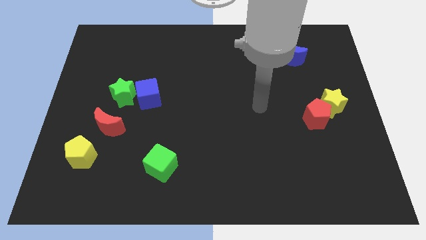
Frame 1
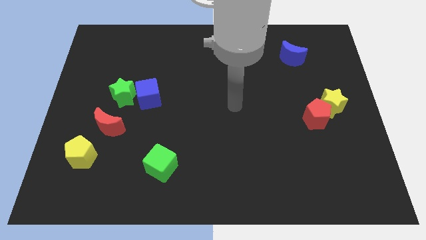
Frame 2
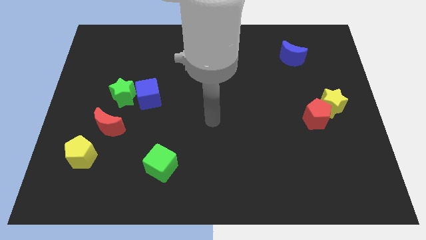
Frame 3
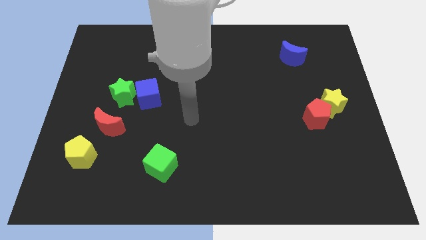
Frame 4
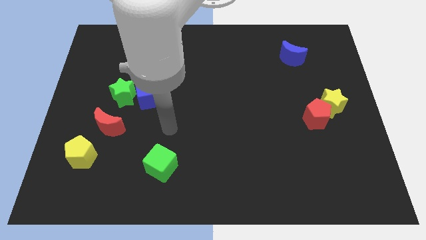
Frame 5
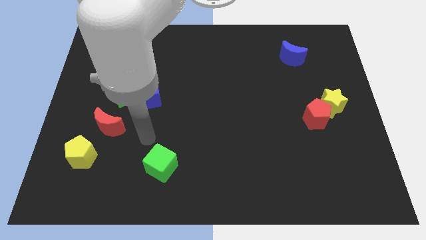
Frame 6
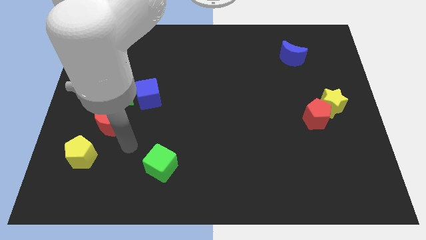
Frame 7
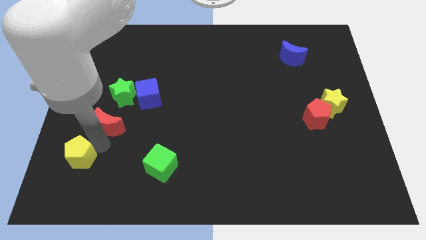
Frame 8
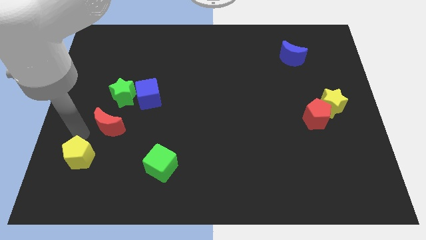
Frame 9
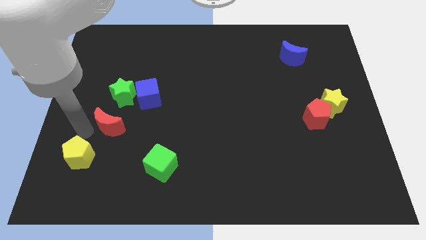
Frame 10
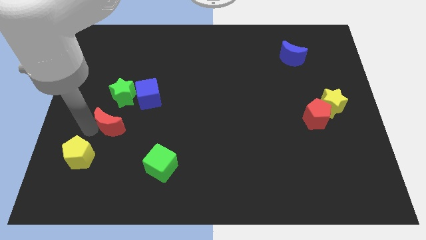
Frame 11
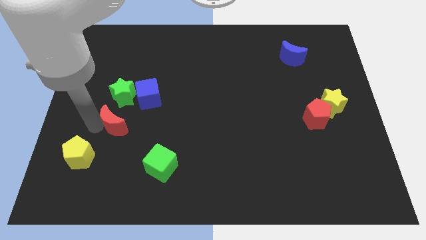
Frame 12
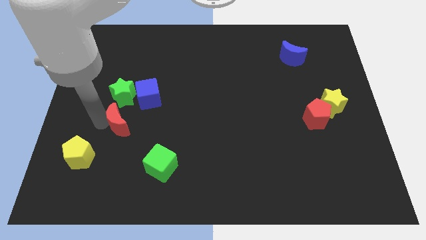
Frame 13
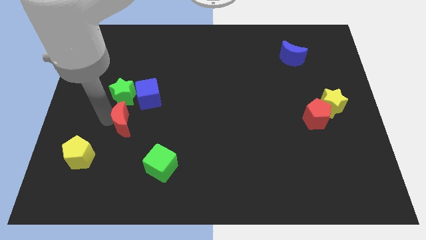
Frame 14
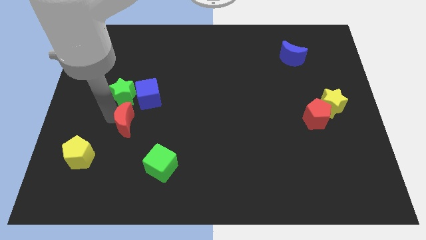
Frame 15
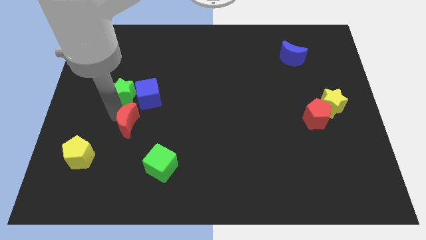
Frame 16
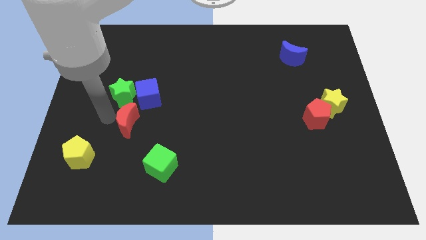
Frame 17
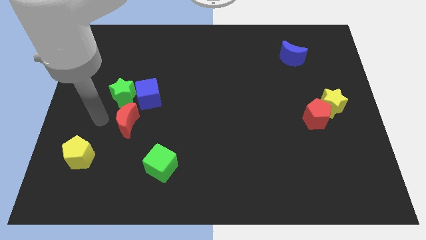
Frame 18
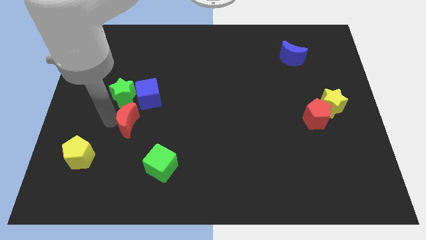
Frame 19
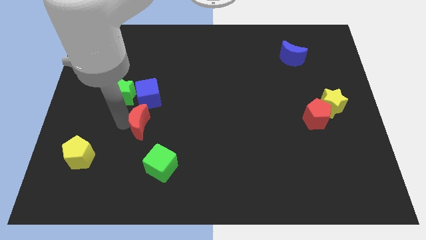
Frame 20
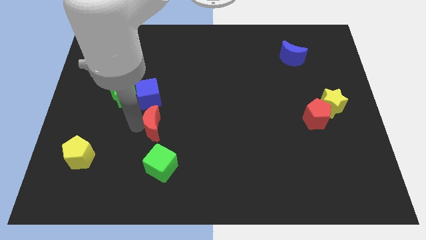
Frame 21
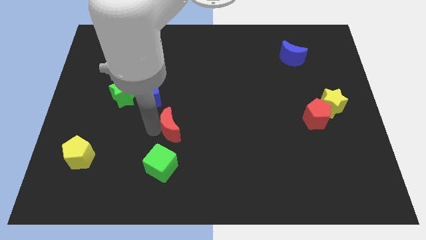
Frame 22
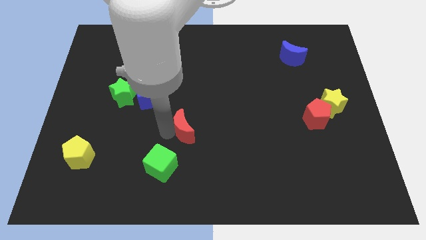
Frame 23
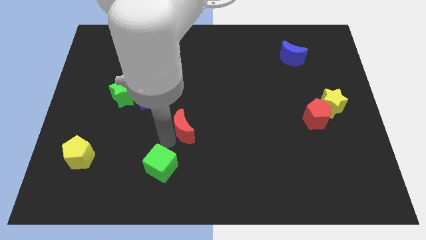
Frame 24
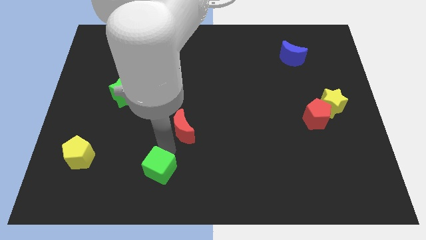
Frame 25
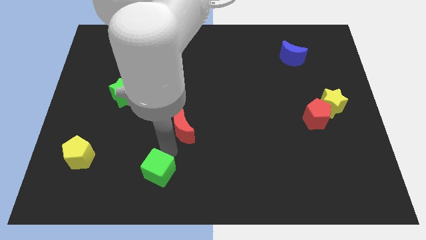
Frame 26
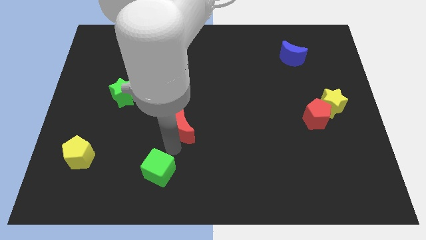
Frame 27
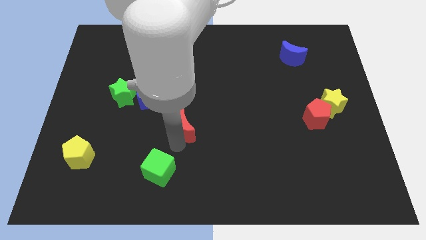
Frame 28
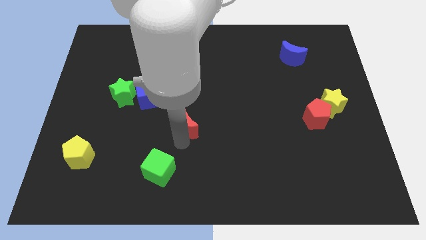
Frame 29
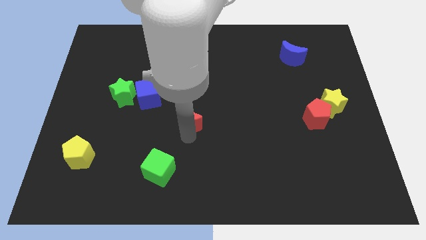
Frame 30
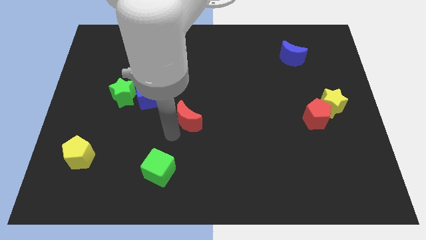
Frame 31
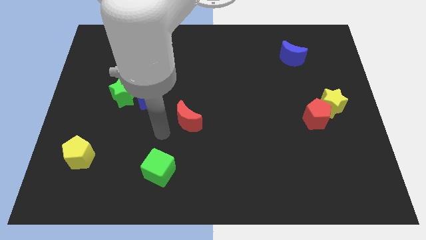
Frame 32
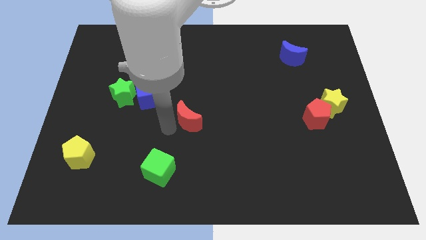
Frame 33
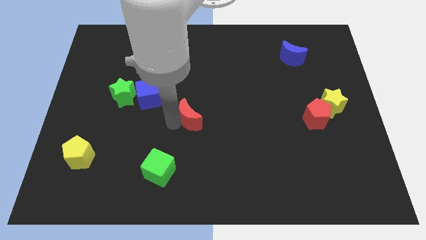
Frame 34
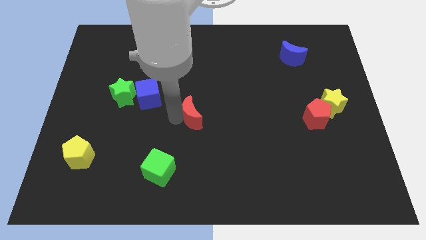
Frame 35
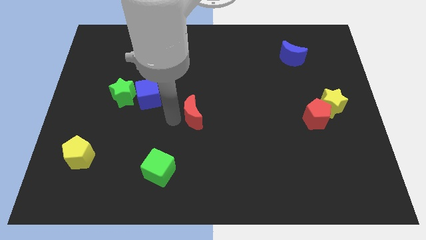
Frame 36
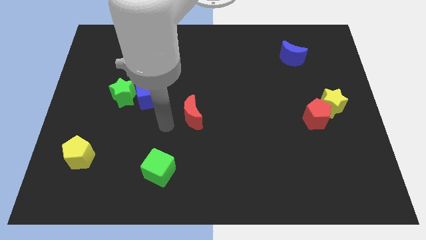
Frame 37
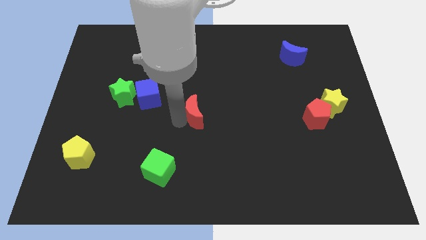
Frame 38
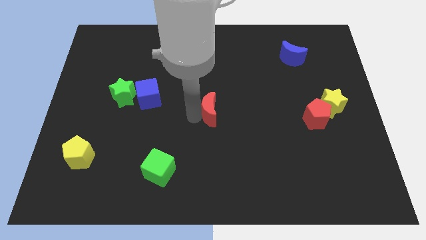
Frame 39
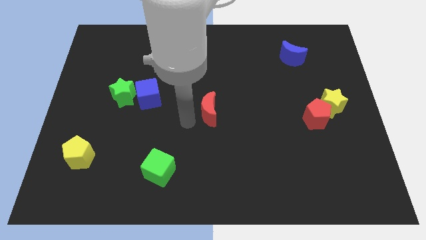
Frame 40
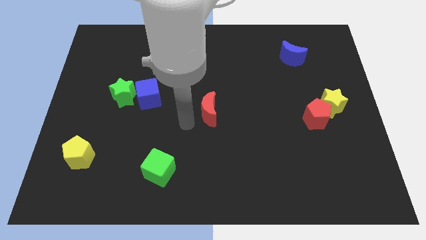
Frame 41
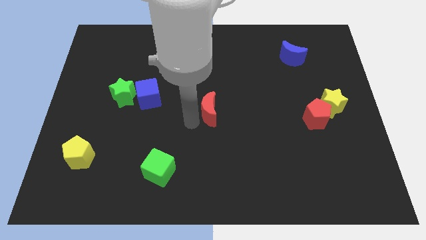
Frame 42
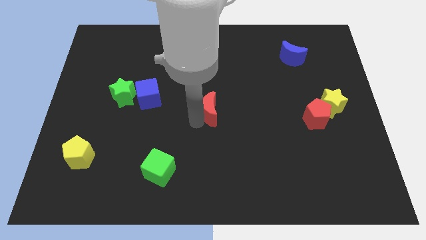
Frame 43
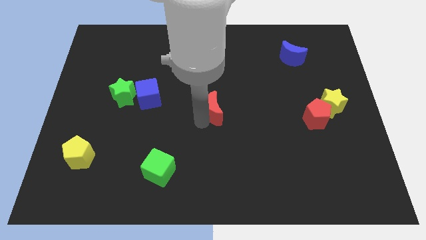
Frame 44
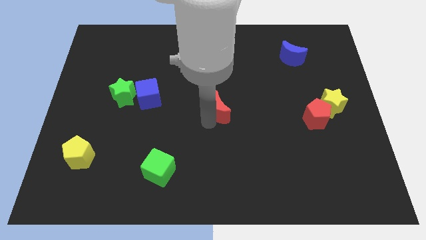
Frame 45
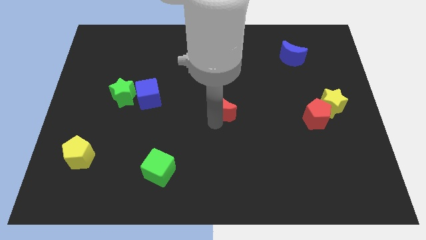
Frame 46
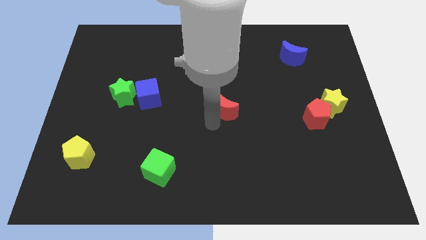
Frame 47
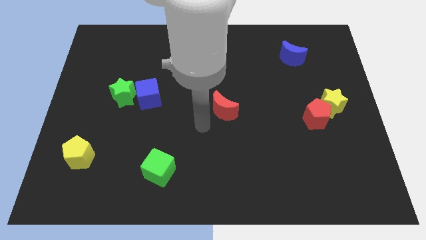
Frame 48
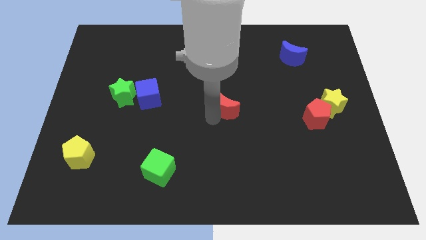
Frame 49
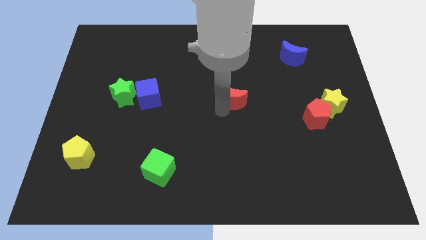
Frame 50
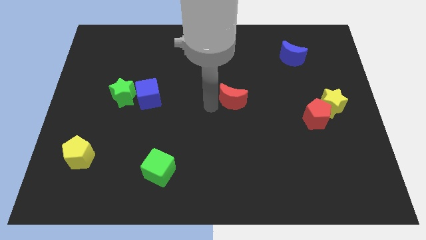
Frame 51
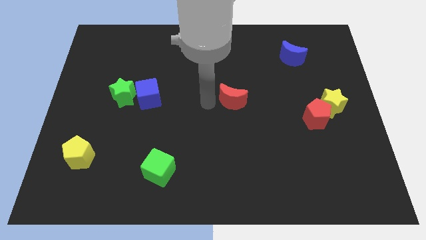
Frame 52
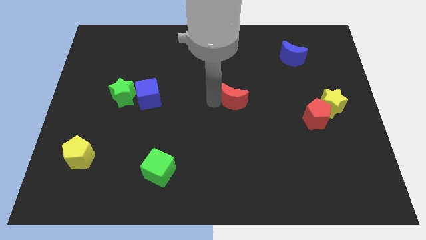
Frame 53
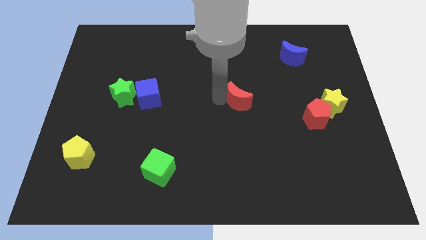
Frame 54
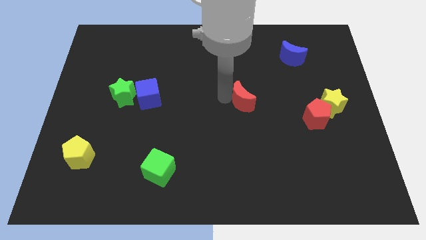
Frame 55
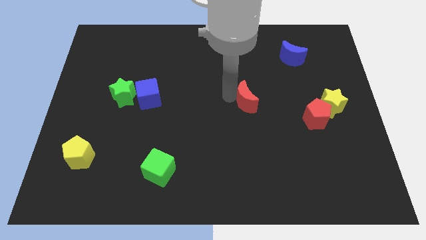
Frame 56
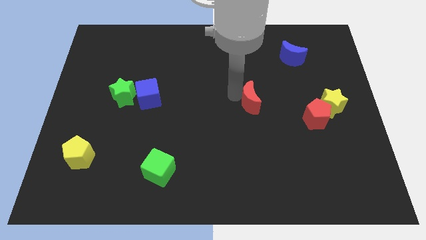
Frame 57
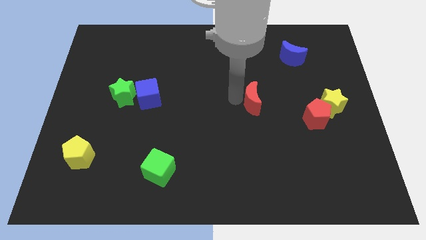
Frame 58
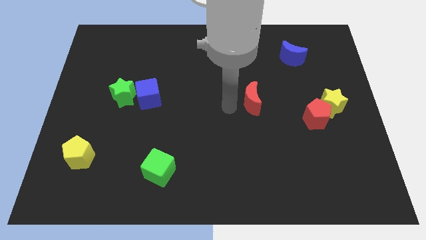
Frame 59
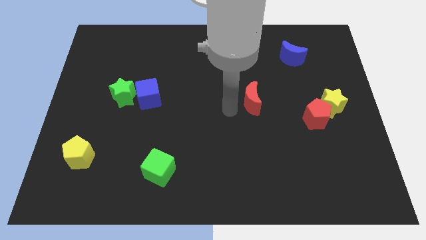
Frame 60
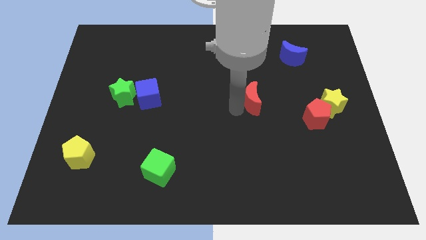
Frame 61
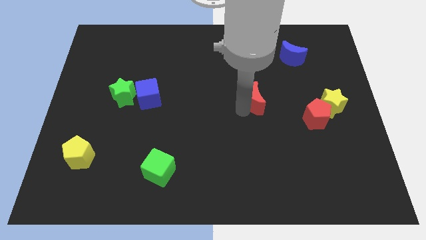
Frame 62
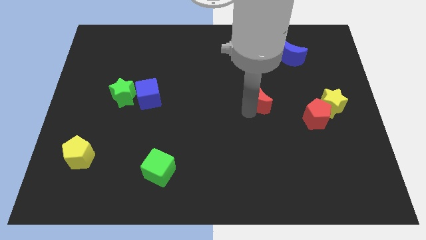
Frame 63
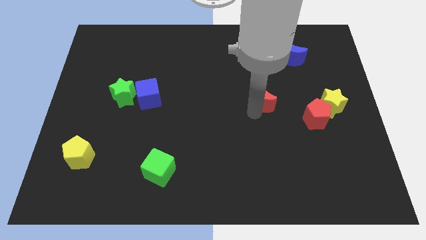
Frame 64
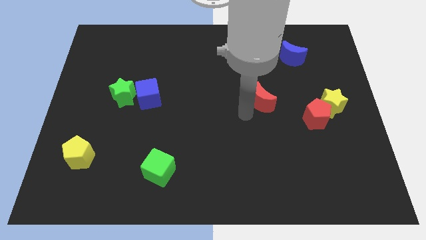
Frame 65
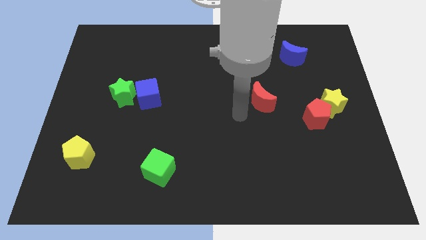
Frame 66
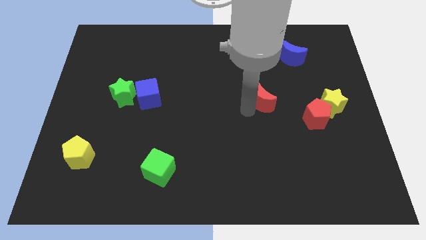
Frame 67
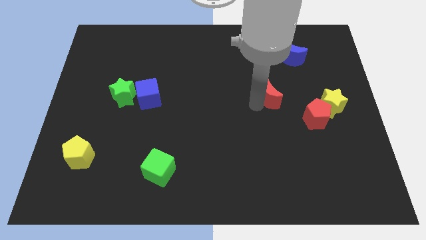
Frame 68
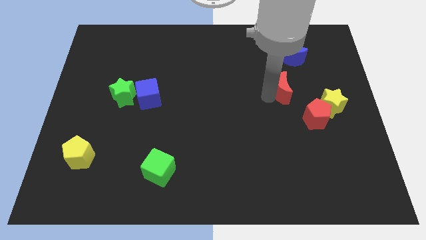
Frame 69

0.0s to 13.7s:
slide the red moon to the bottom of the blue moon
